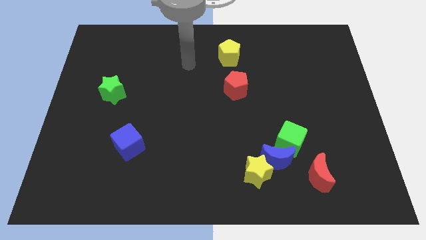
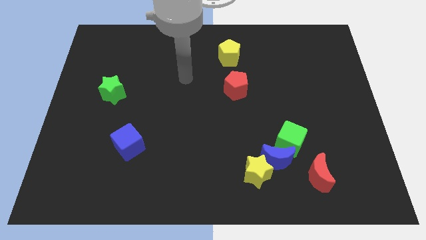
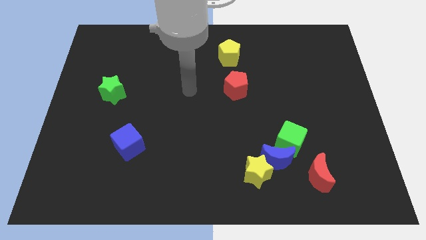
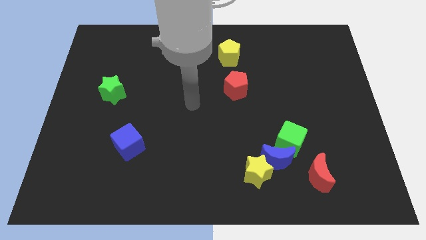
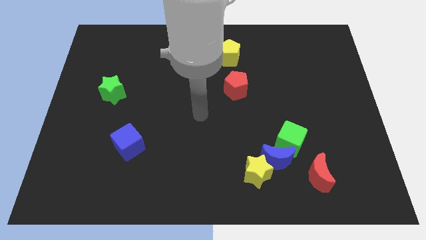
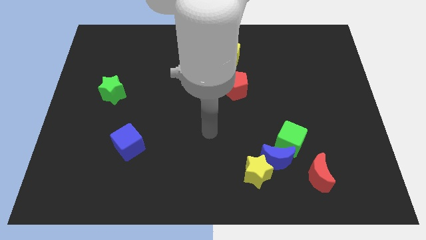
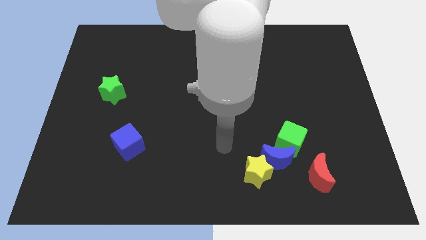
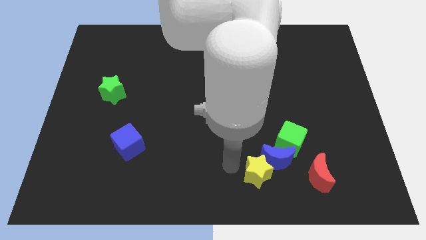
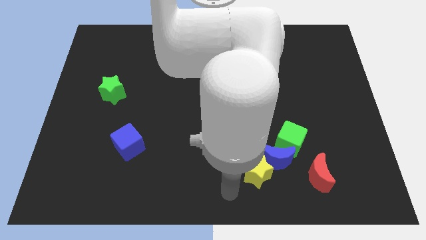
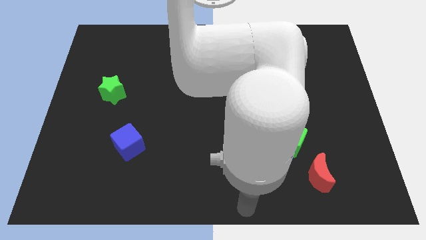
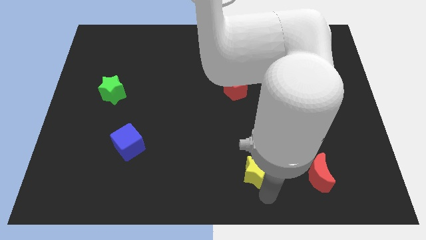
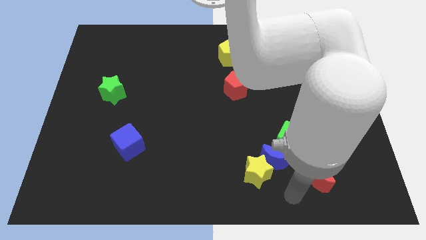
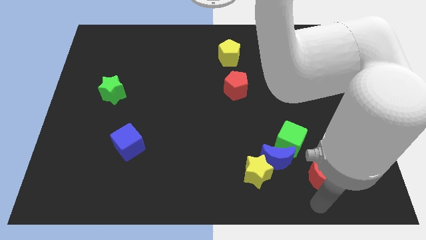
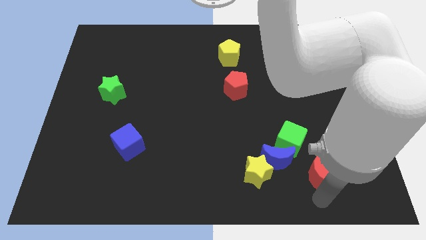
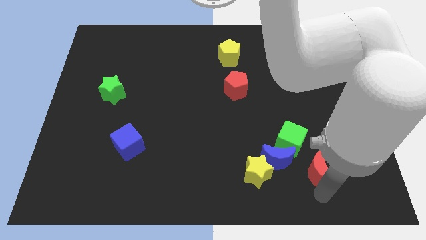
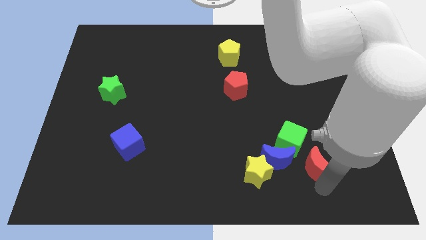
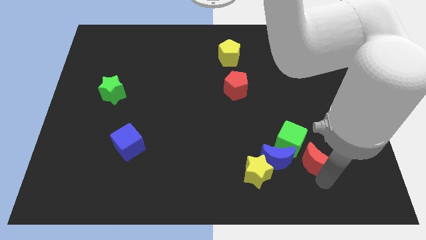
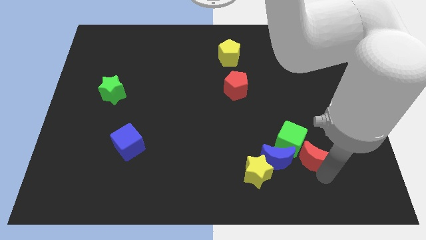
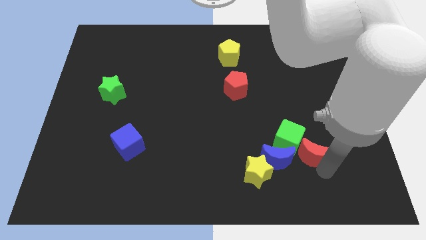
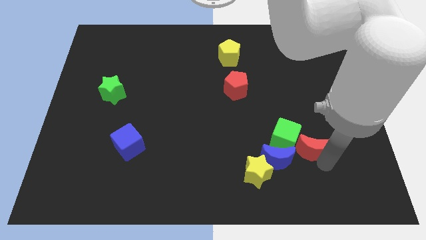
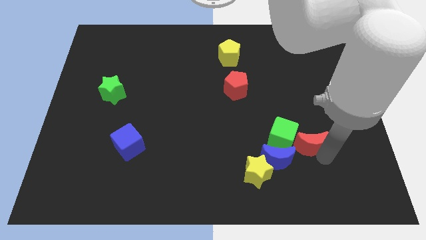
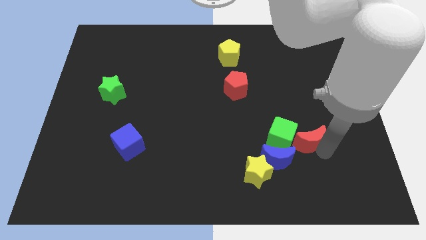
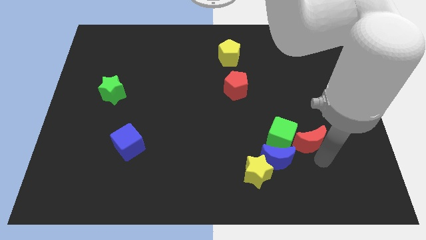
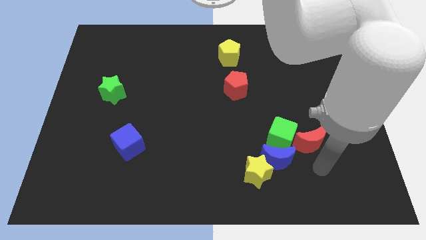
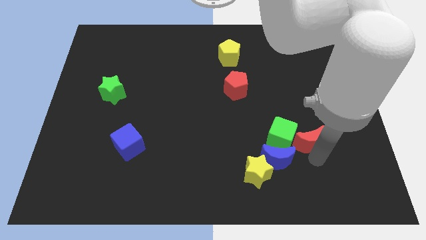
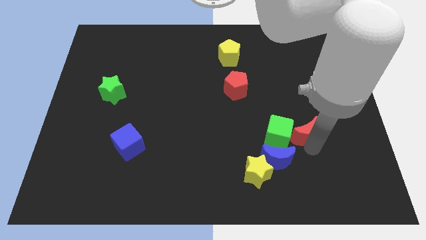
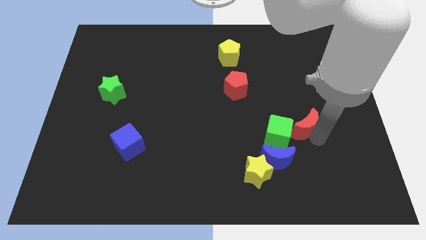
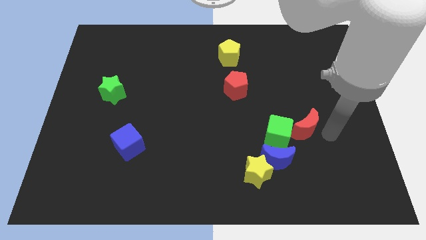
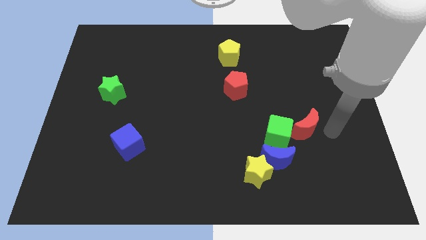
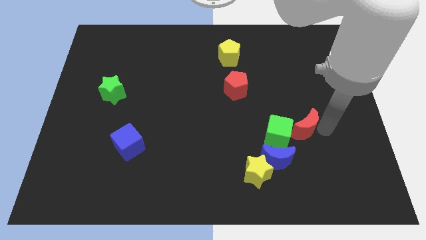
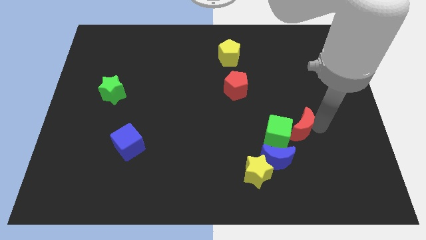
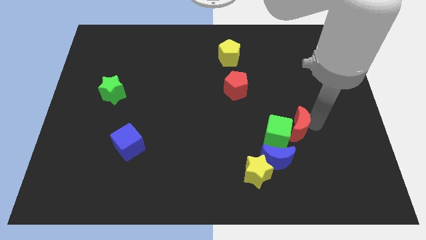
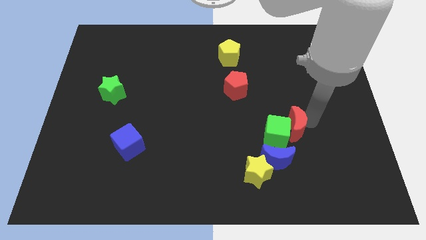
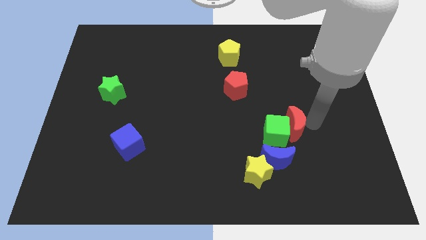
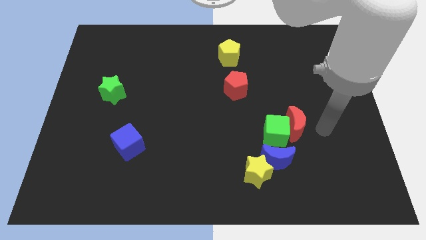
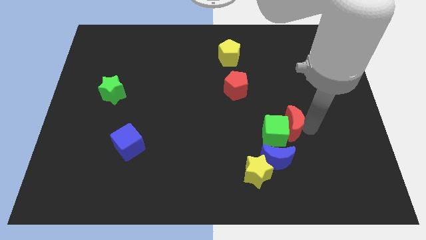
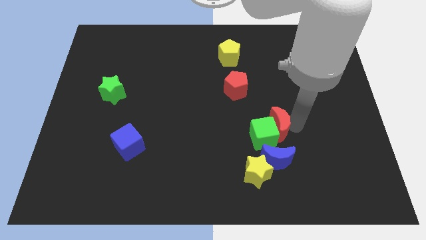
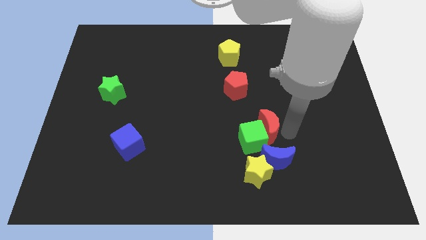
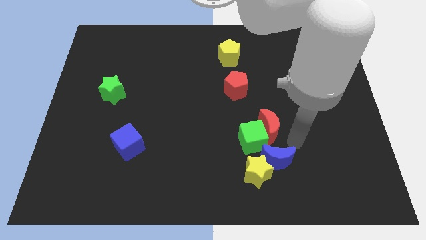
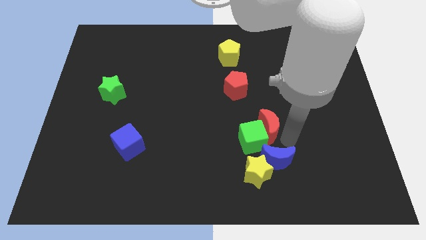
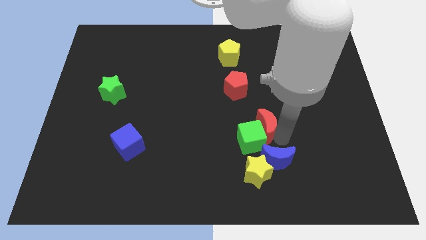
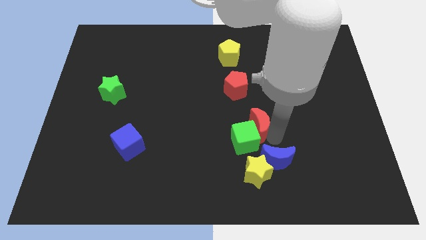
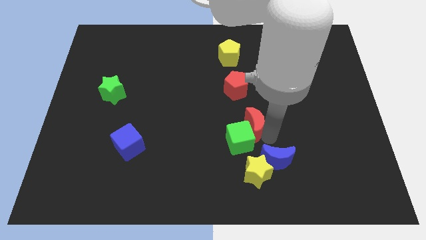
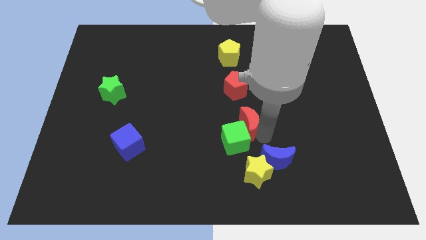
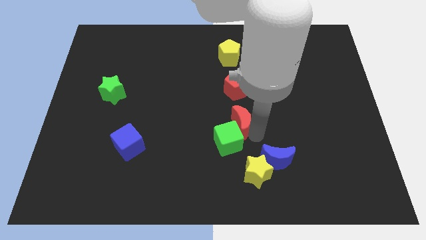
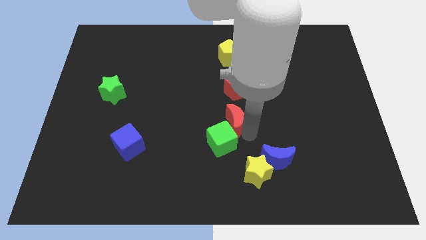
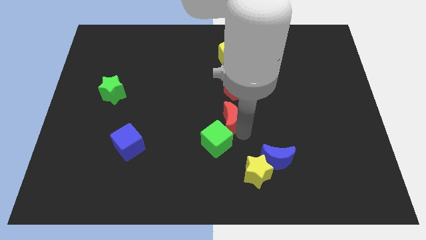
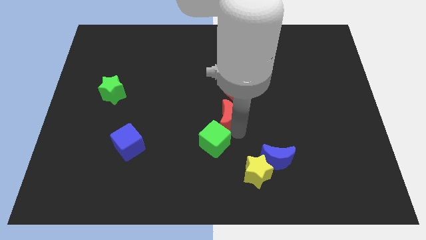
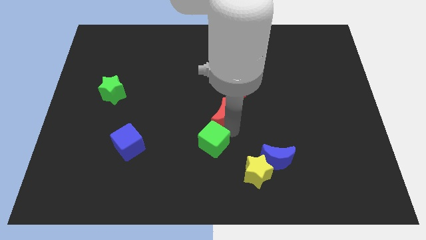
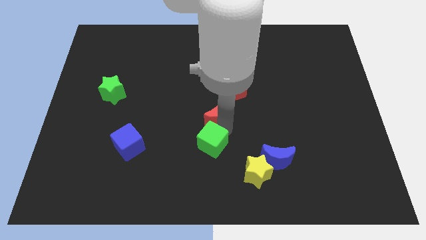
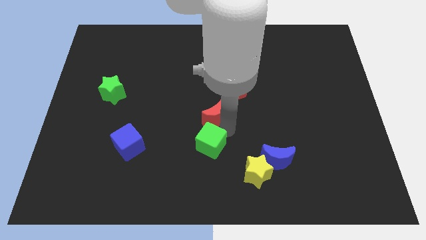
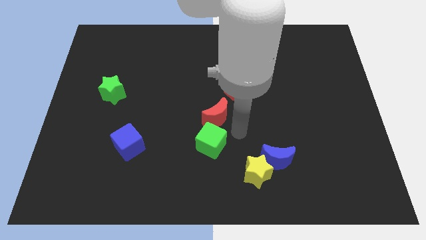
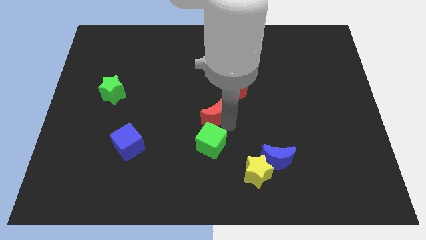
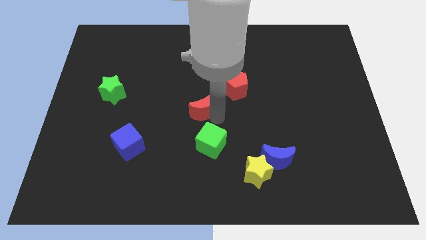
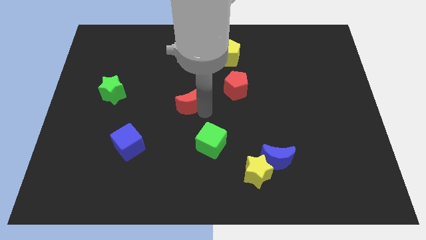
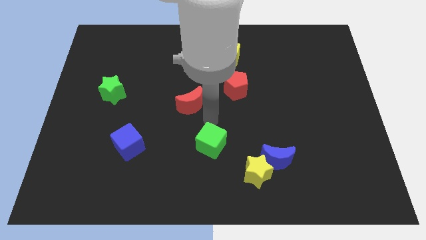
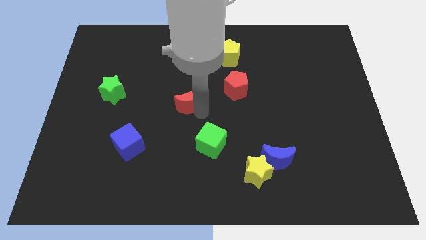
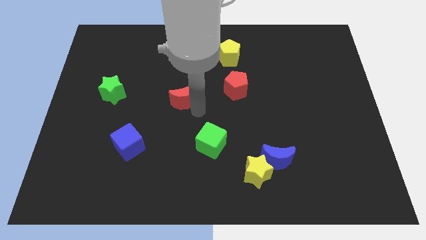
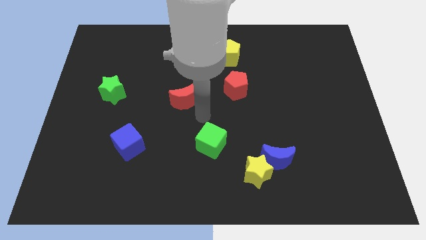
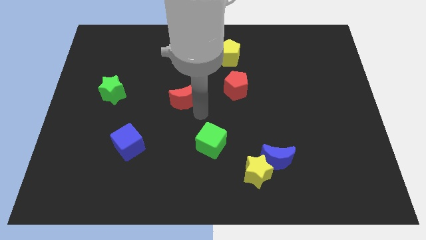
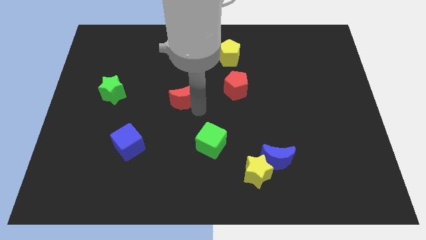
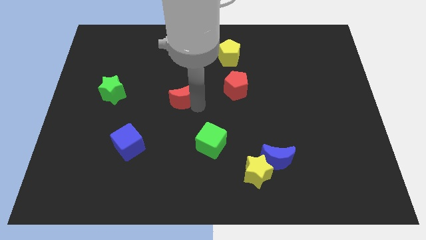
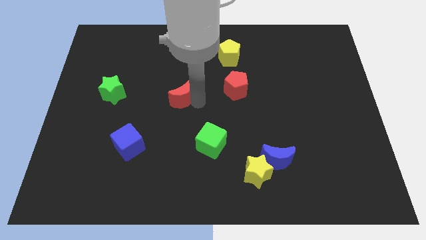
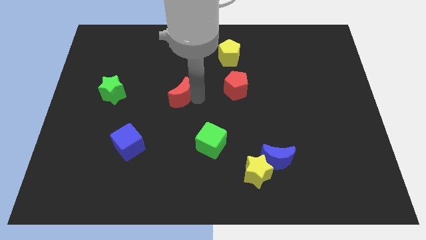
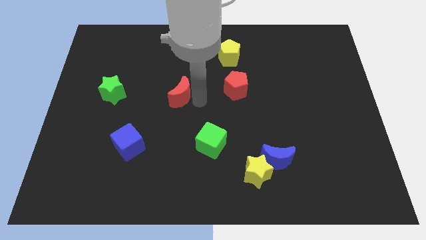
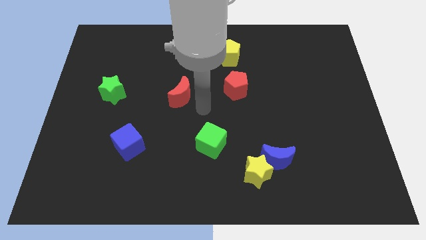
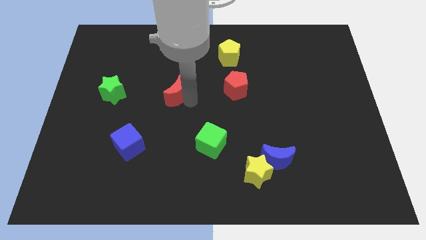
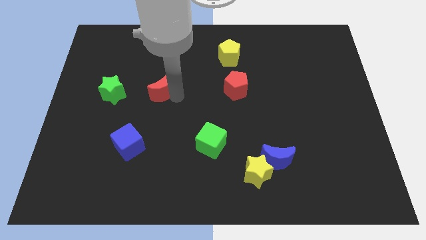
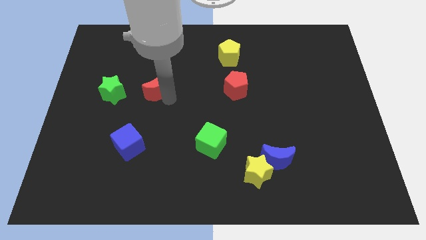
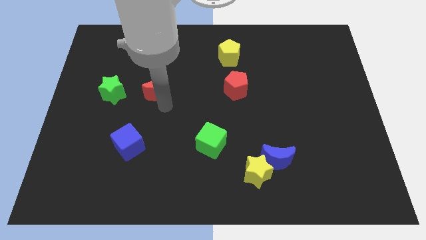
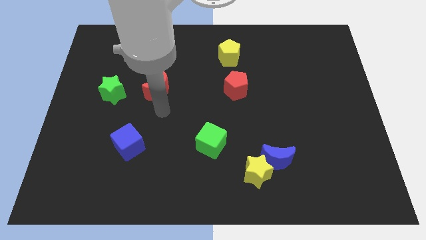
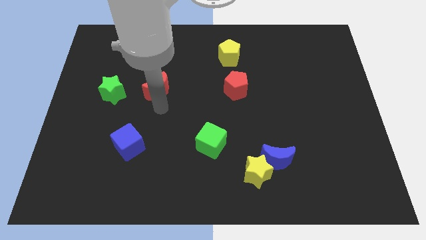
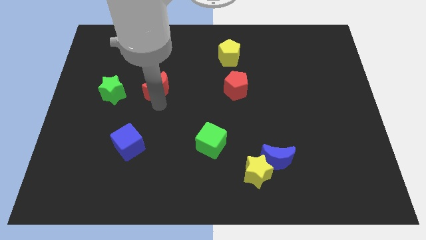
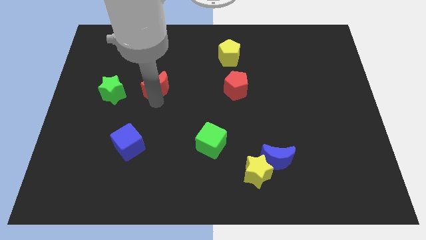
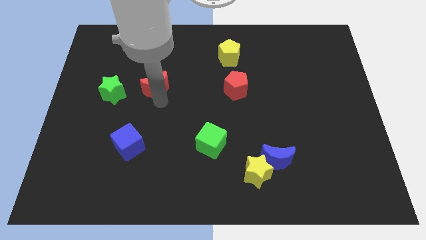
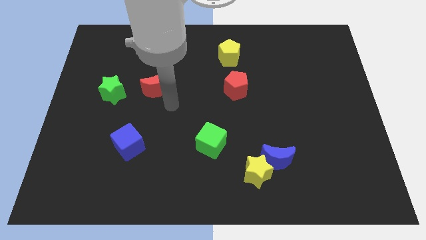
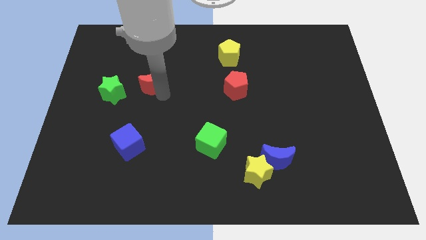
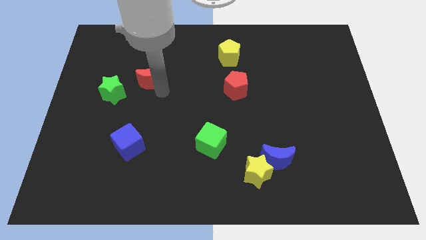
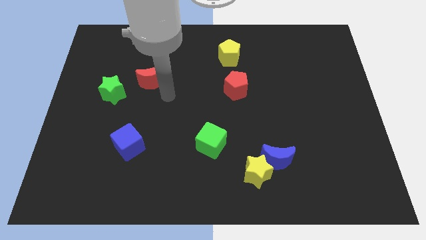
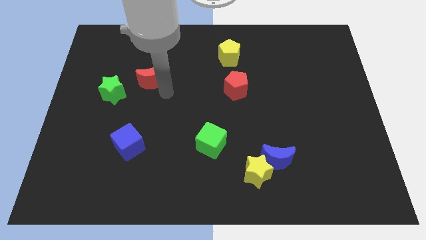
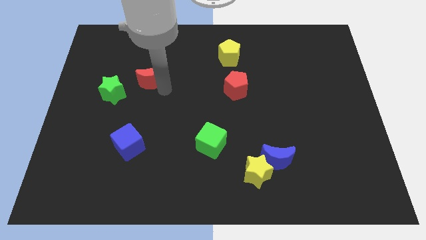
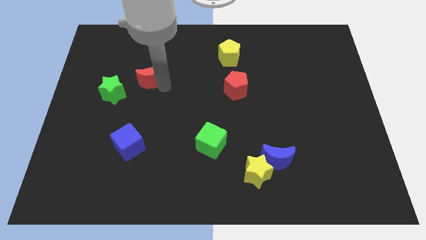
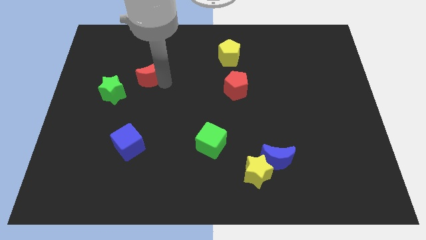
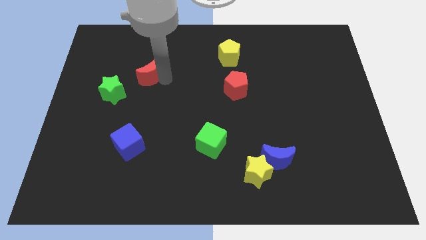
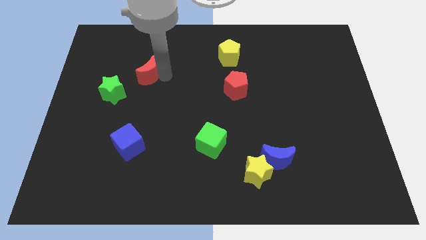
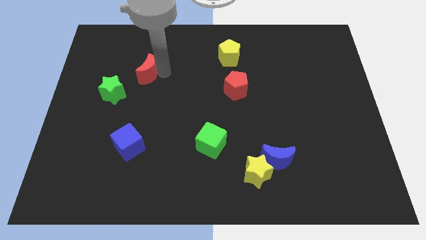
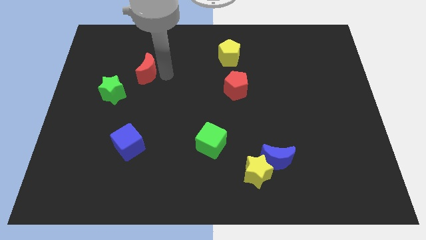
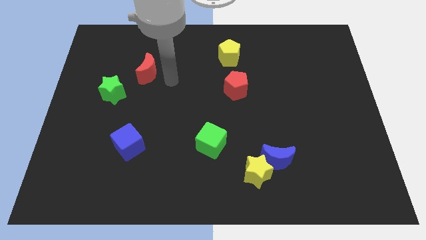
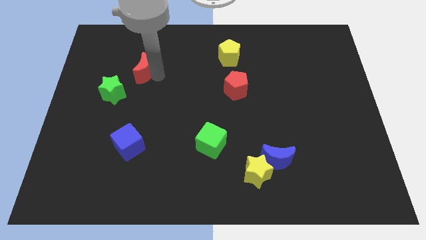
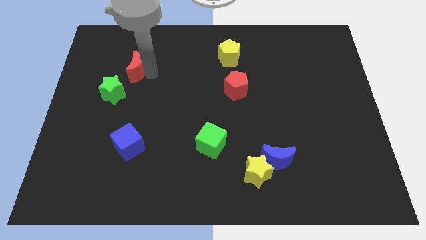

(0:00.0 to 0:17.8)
put the red moon to the top side of the green star
